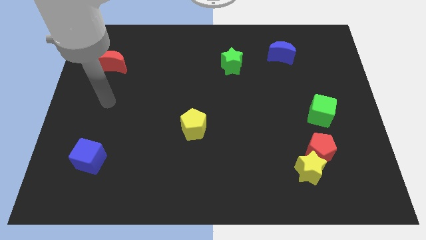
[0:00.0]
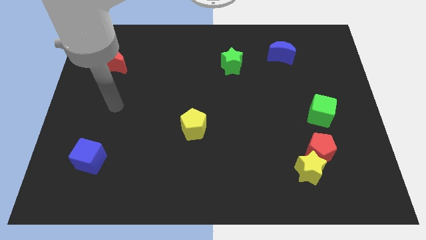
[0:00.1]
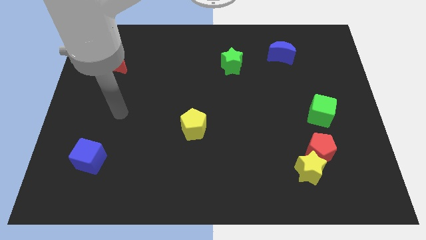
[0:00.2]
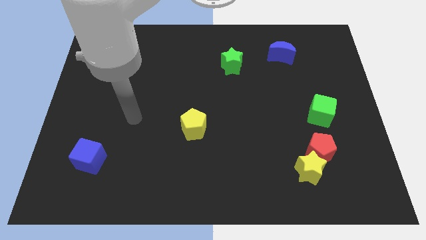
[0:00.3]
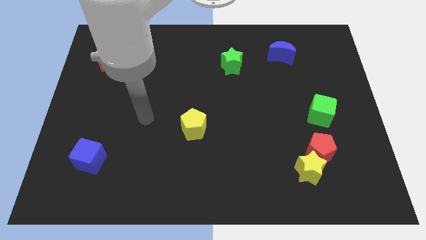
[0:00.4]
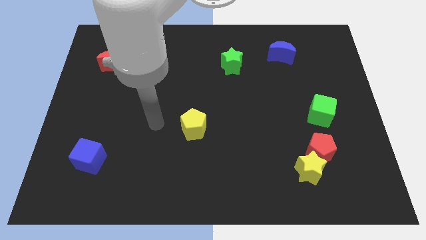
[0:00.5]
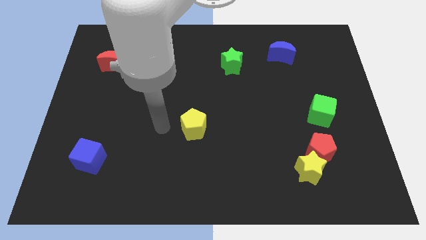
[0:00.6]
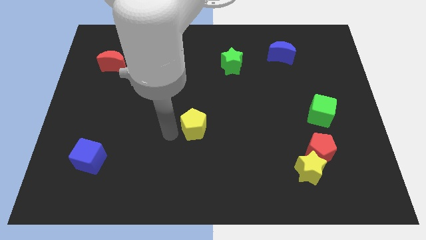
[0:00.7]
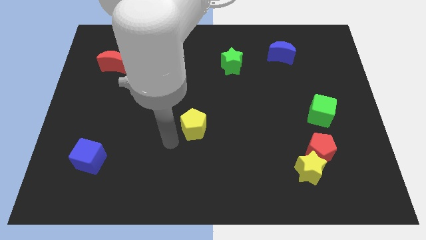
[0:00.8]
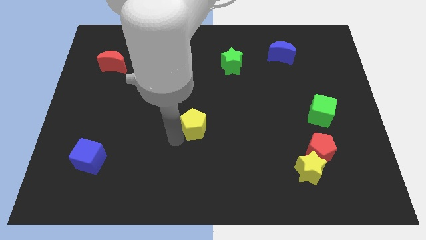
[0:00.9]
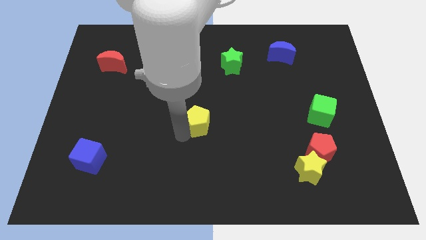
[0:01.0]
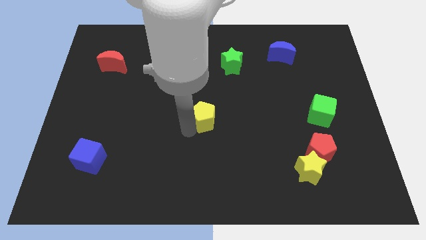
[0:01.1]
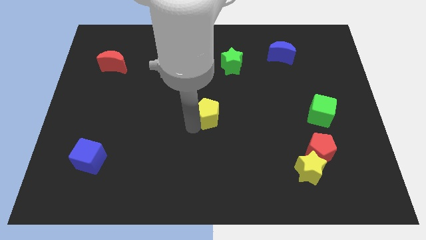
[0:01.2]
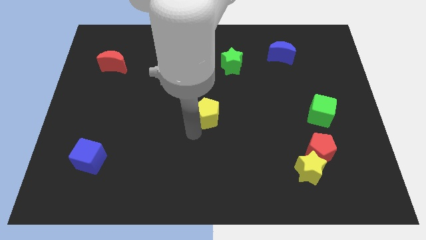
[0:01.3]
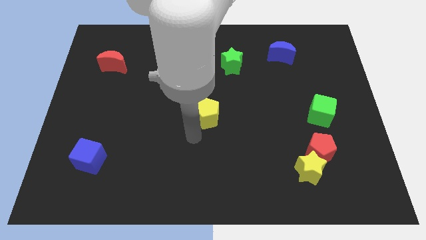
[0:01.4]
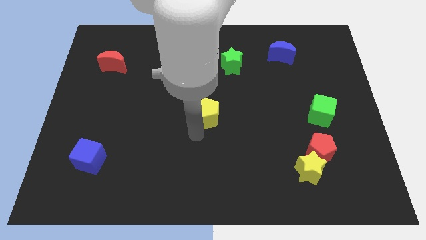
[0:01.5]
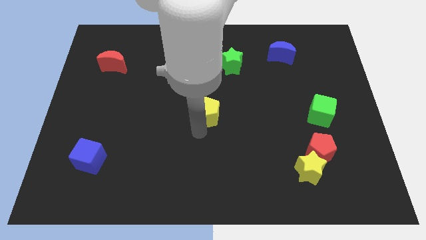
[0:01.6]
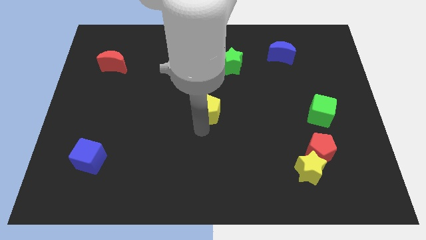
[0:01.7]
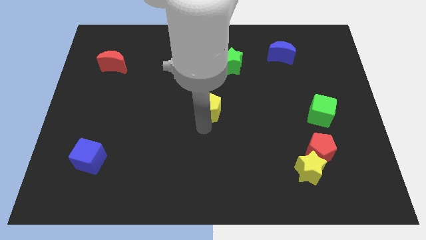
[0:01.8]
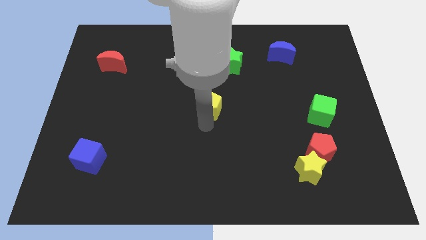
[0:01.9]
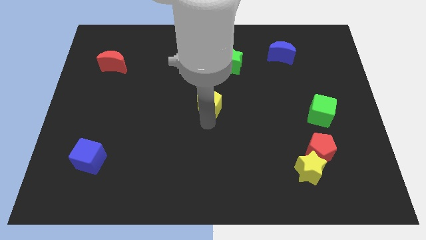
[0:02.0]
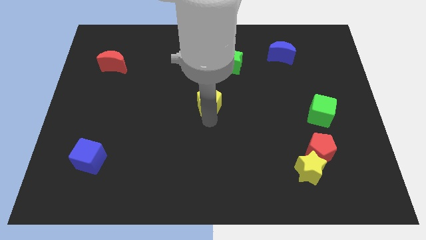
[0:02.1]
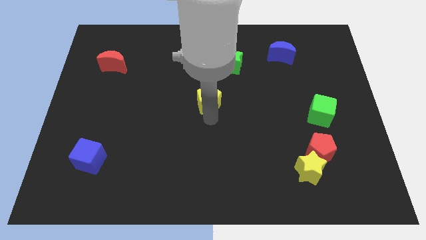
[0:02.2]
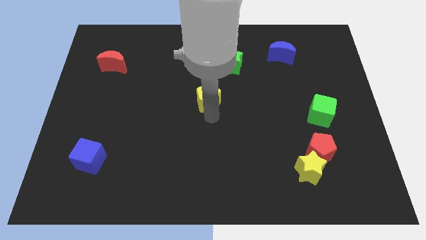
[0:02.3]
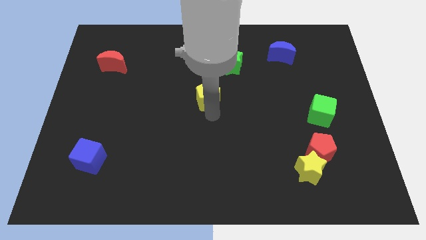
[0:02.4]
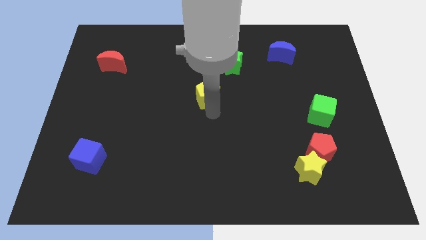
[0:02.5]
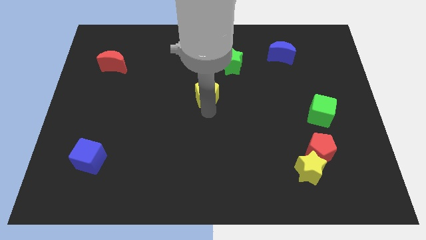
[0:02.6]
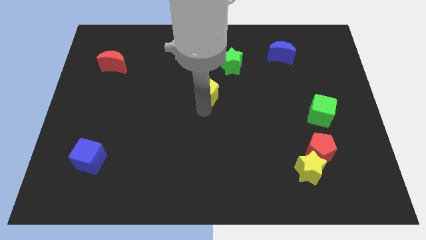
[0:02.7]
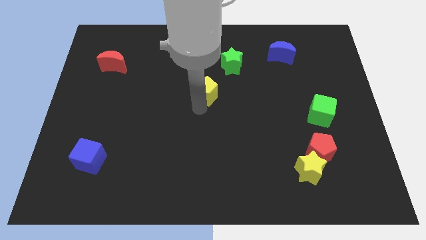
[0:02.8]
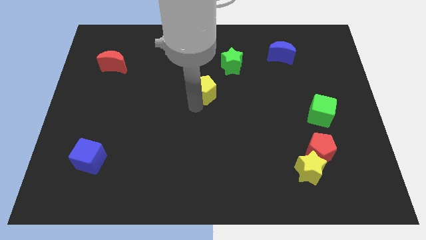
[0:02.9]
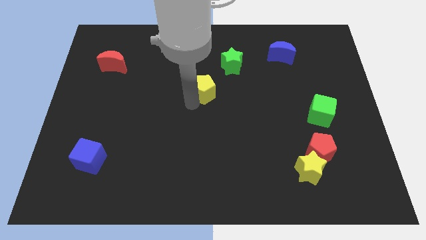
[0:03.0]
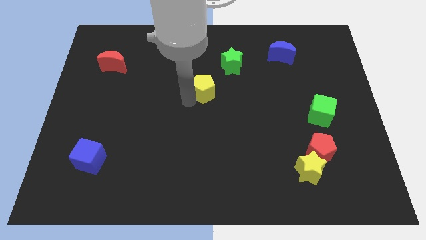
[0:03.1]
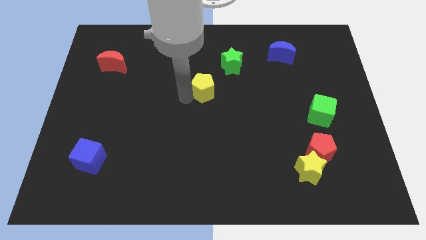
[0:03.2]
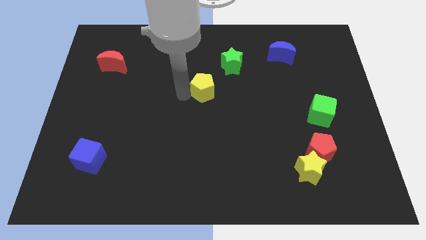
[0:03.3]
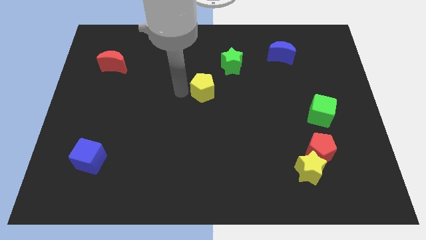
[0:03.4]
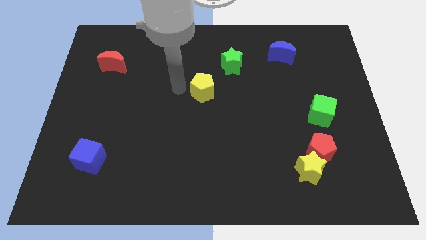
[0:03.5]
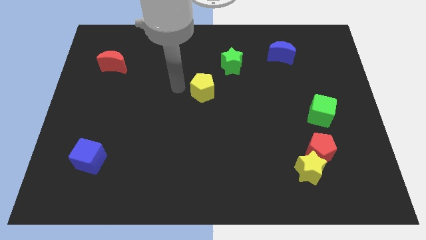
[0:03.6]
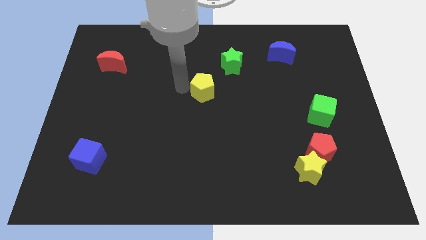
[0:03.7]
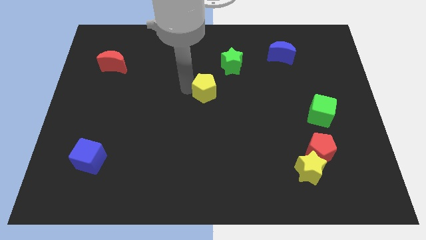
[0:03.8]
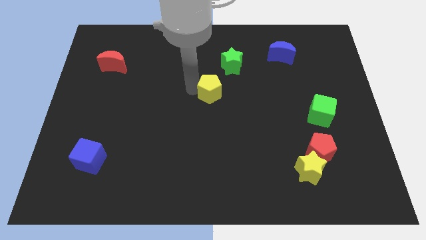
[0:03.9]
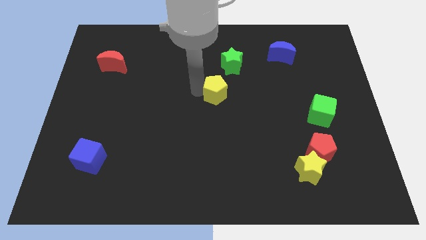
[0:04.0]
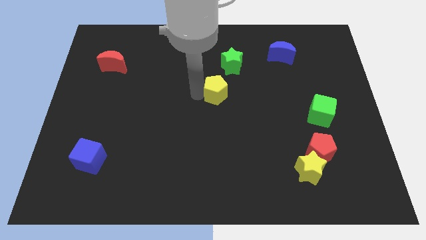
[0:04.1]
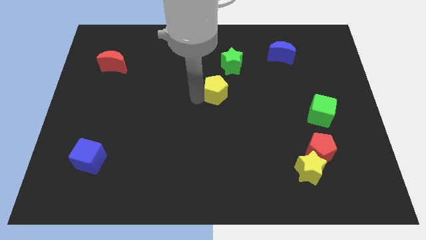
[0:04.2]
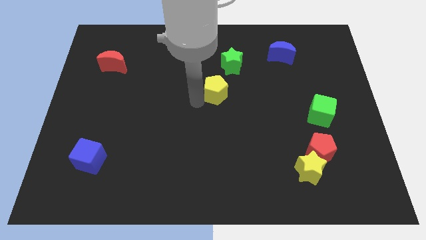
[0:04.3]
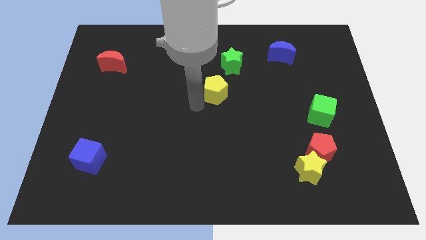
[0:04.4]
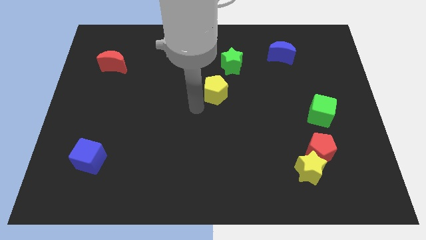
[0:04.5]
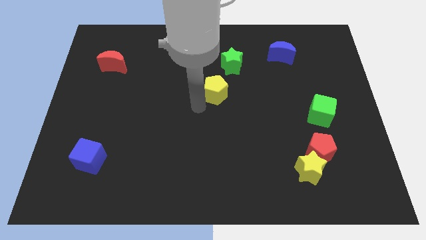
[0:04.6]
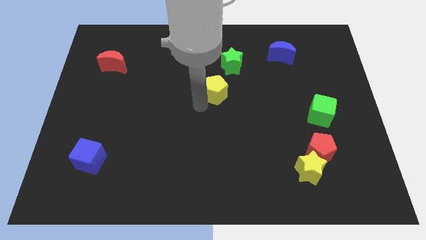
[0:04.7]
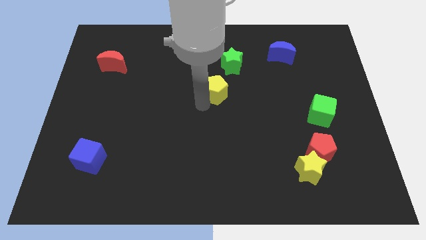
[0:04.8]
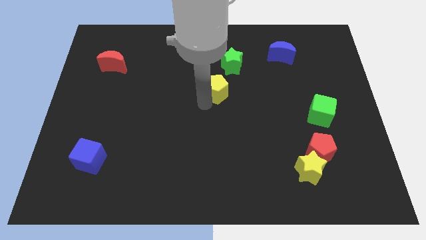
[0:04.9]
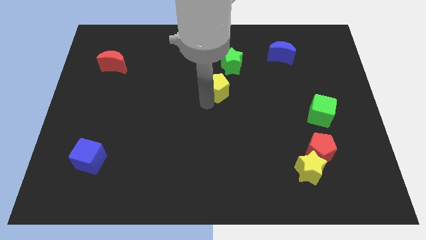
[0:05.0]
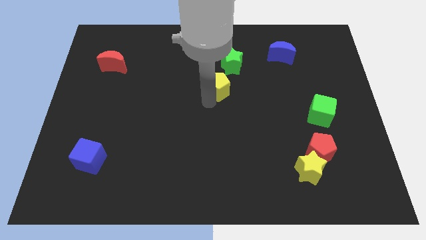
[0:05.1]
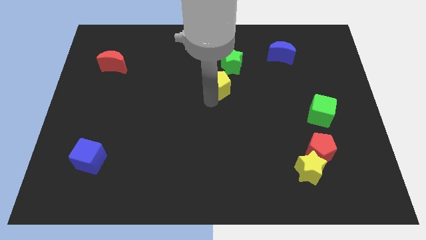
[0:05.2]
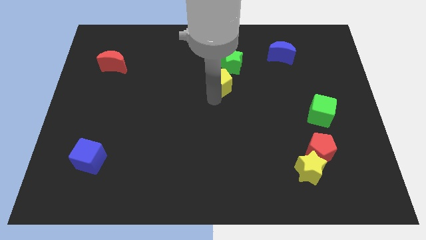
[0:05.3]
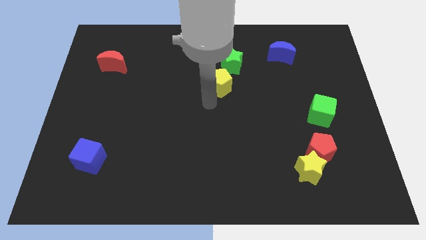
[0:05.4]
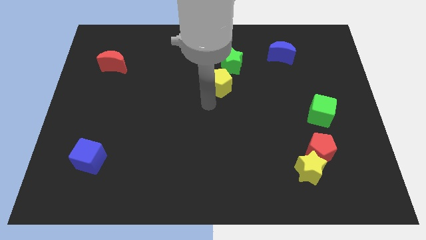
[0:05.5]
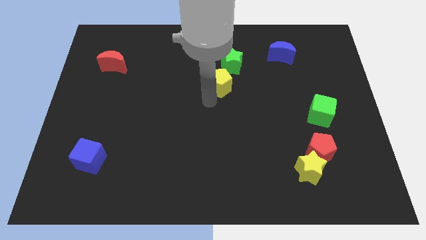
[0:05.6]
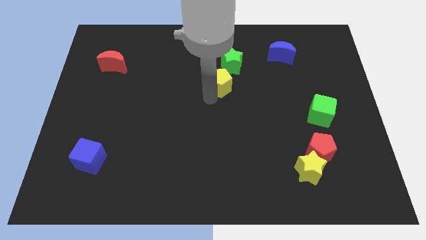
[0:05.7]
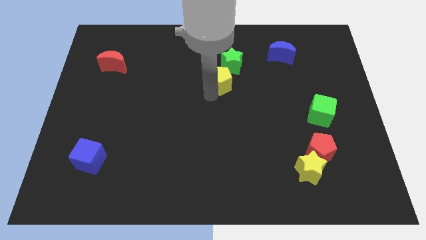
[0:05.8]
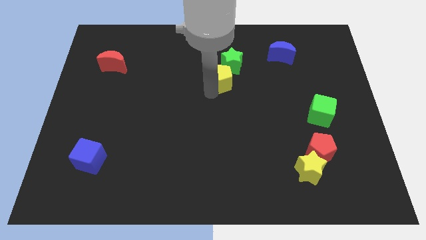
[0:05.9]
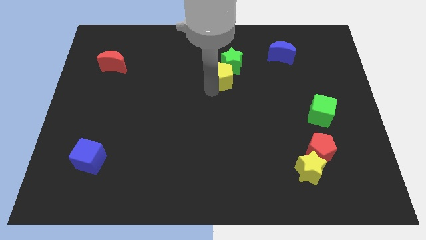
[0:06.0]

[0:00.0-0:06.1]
push the yellow pentagon close to the green star

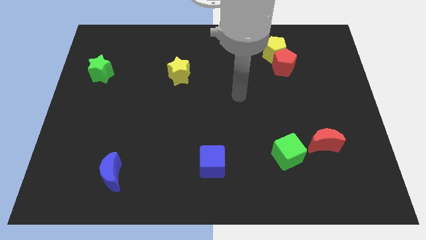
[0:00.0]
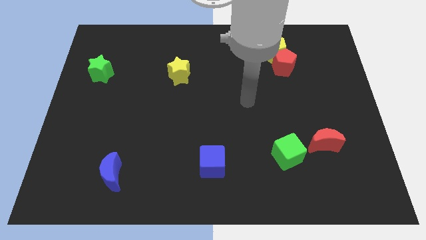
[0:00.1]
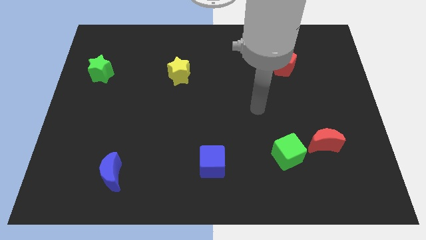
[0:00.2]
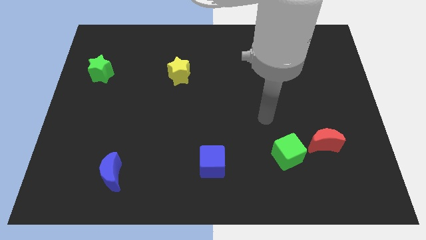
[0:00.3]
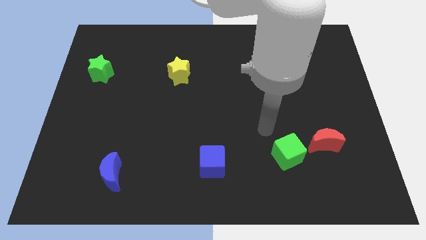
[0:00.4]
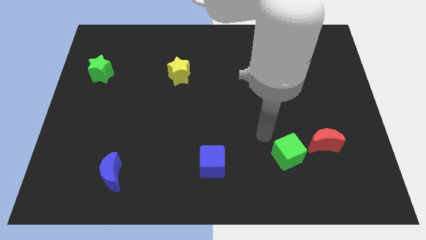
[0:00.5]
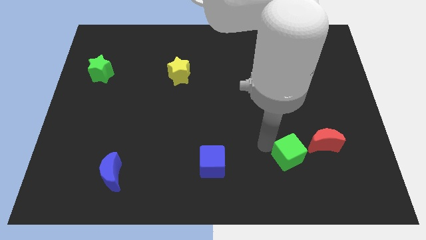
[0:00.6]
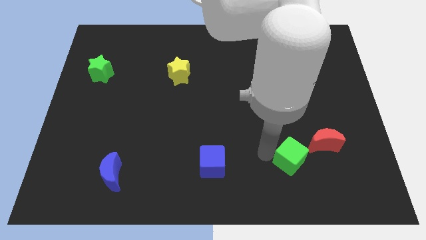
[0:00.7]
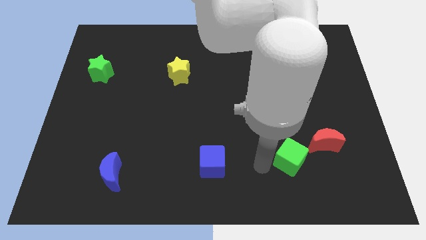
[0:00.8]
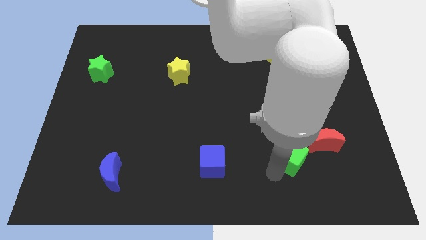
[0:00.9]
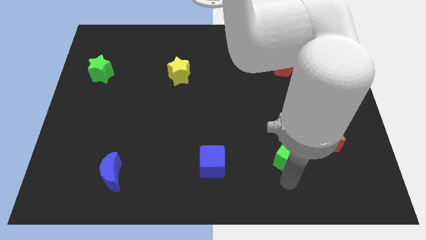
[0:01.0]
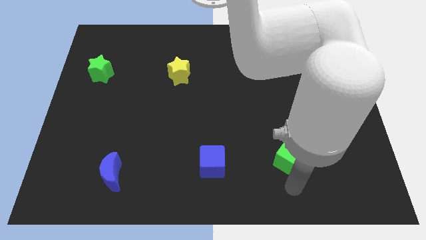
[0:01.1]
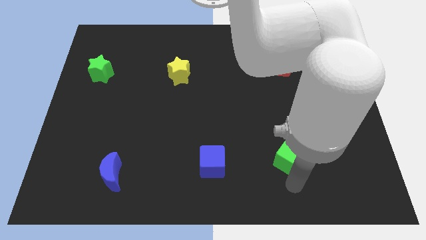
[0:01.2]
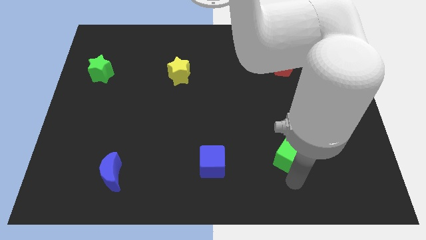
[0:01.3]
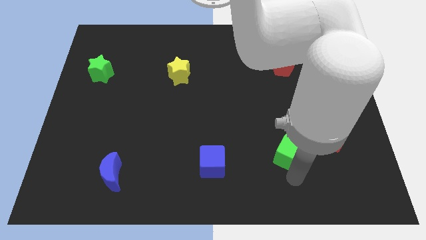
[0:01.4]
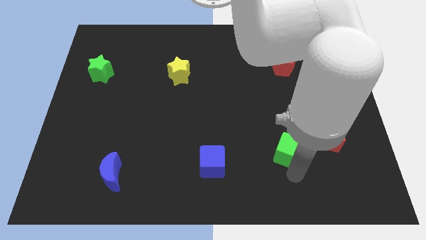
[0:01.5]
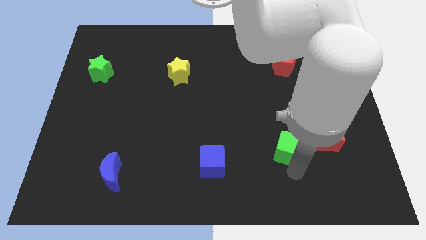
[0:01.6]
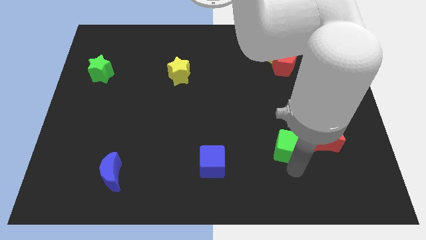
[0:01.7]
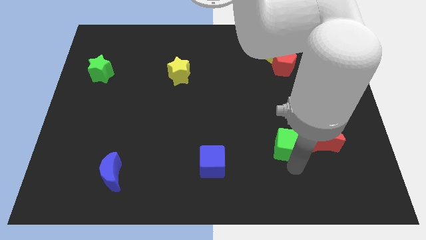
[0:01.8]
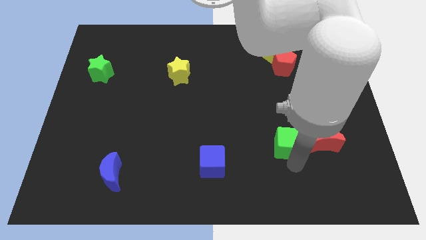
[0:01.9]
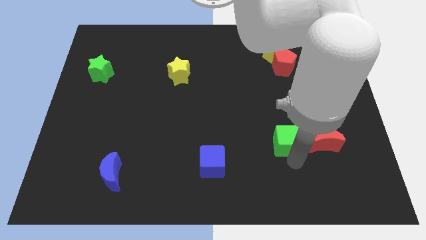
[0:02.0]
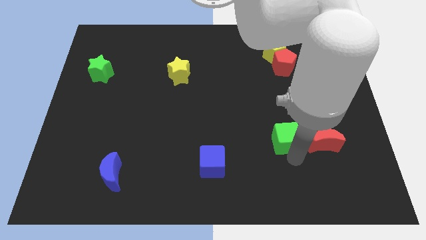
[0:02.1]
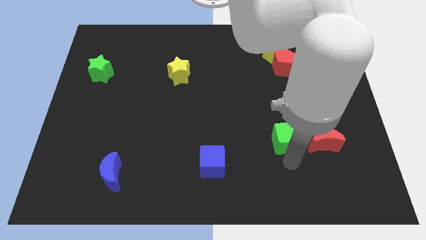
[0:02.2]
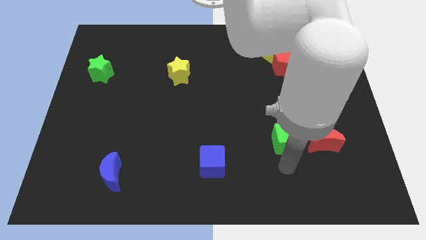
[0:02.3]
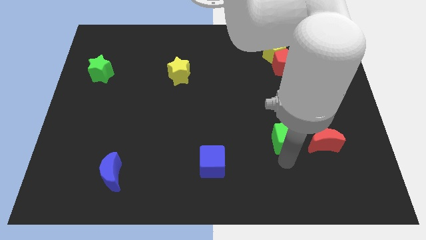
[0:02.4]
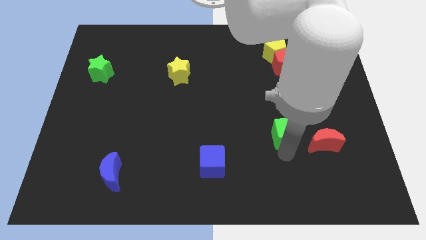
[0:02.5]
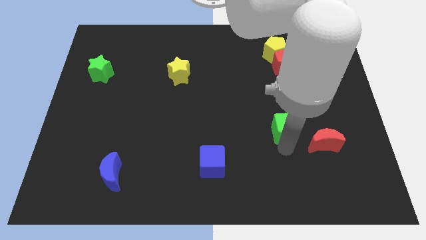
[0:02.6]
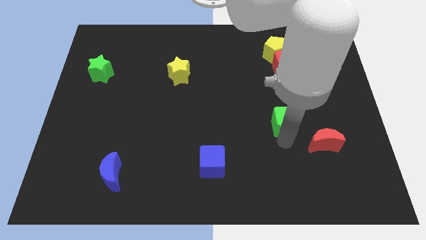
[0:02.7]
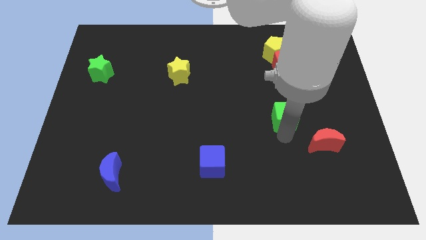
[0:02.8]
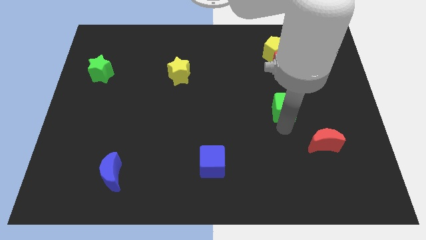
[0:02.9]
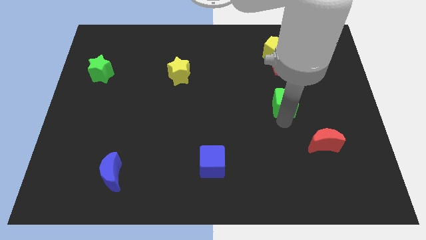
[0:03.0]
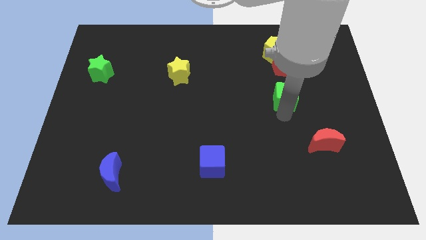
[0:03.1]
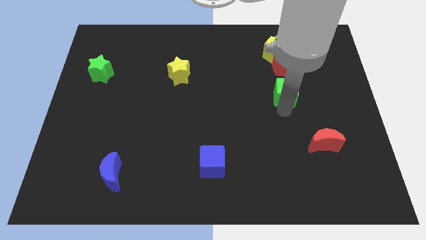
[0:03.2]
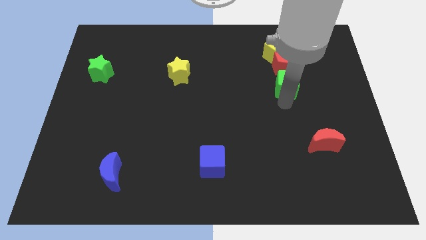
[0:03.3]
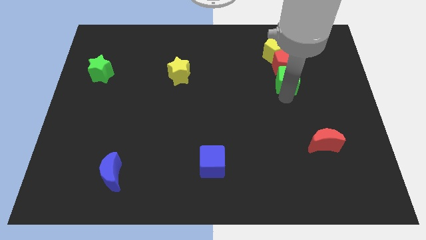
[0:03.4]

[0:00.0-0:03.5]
slide the green cube close to the red pentagon
